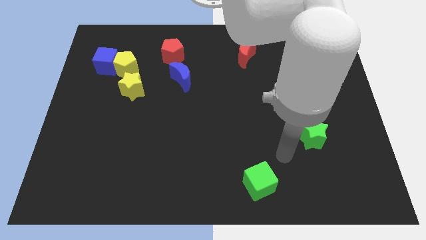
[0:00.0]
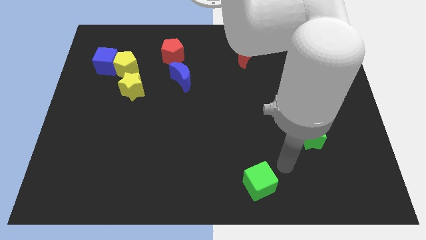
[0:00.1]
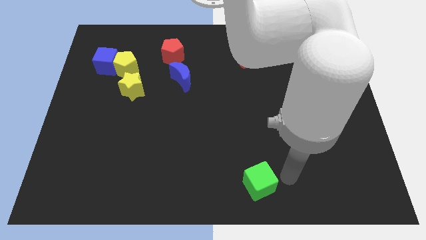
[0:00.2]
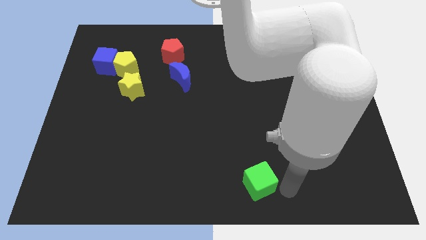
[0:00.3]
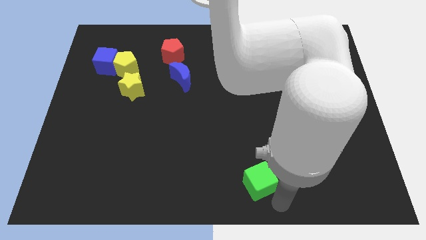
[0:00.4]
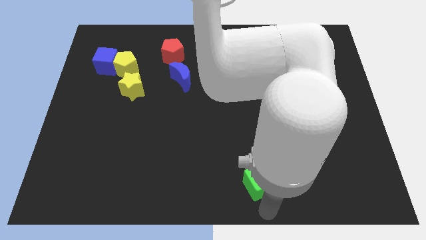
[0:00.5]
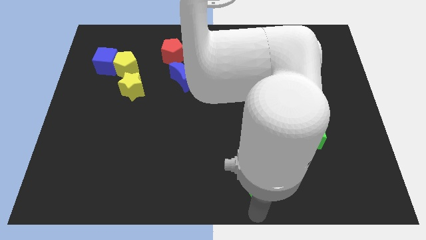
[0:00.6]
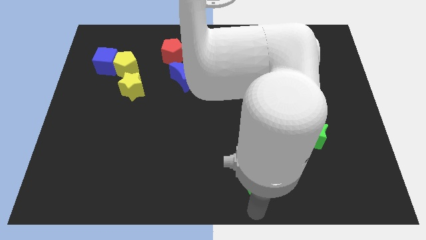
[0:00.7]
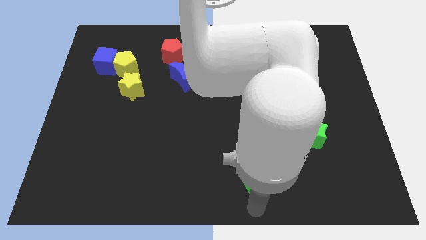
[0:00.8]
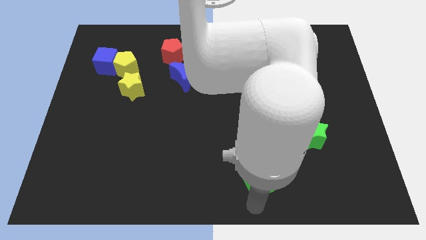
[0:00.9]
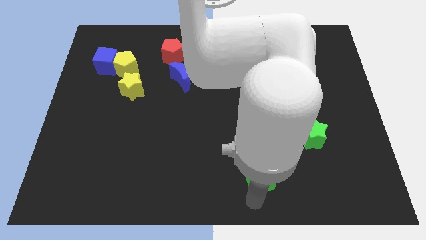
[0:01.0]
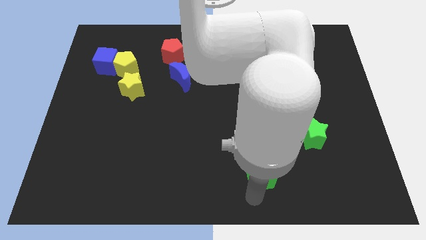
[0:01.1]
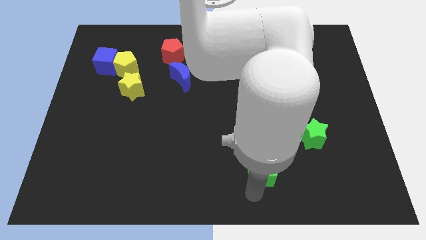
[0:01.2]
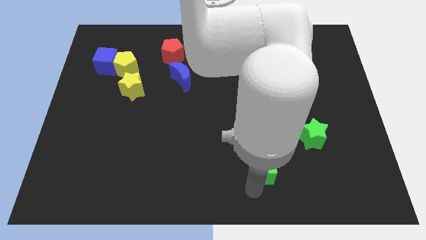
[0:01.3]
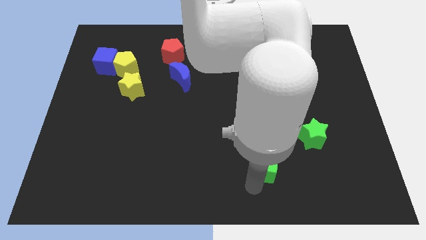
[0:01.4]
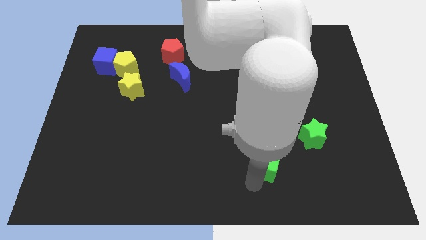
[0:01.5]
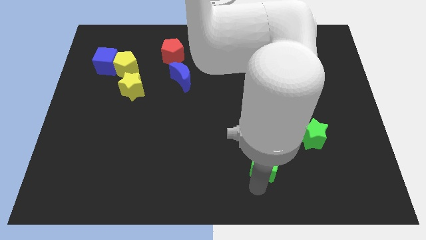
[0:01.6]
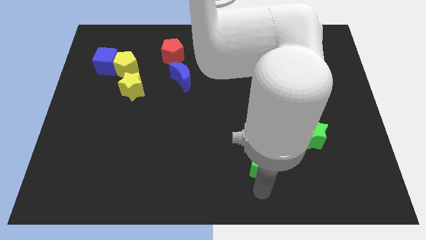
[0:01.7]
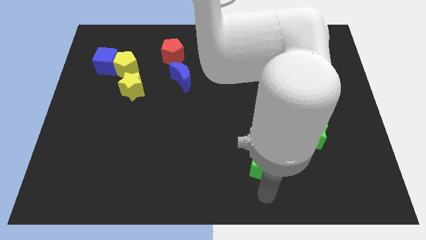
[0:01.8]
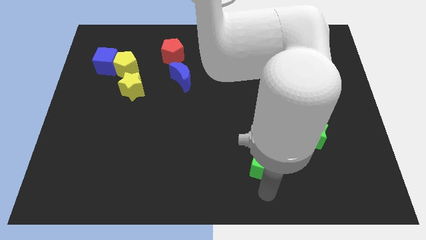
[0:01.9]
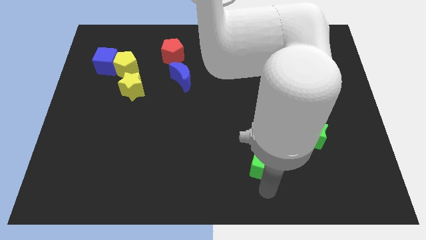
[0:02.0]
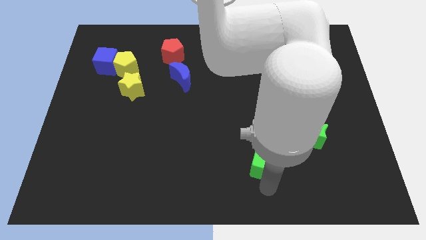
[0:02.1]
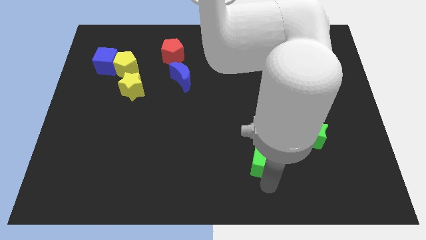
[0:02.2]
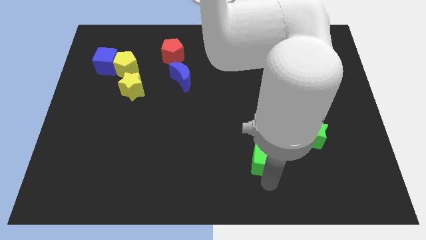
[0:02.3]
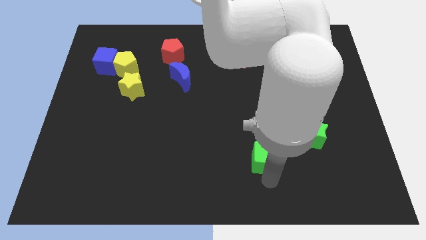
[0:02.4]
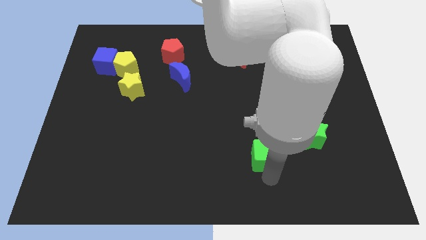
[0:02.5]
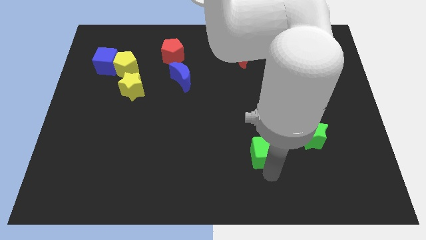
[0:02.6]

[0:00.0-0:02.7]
slightly push the green cube up

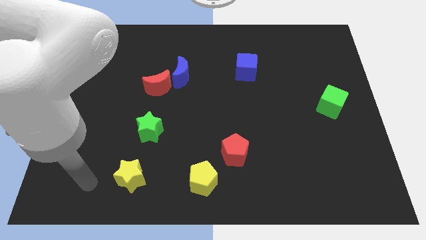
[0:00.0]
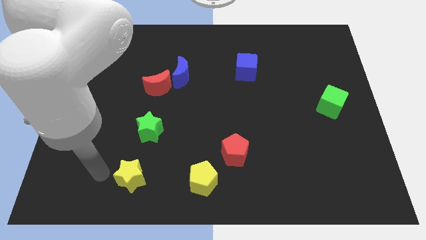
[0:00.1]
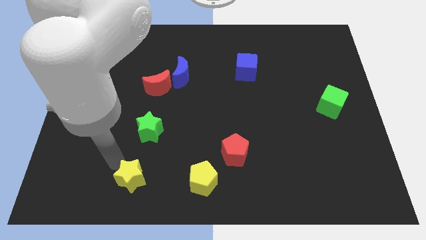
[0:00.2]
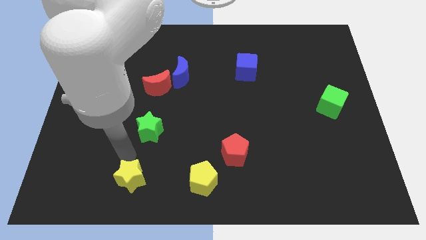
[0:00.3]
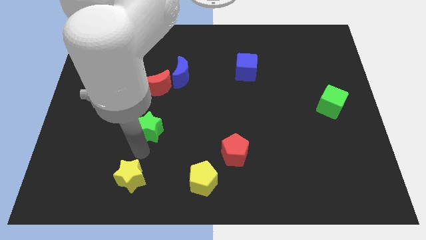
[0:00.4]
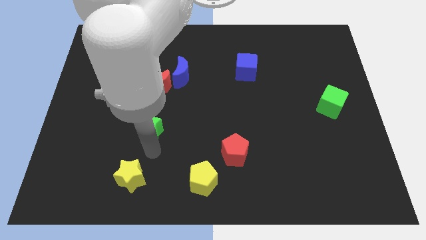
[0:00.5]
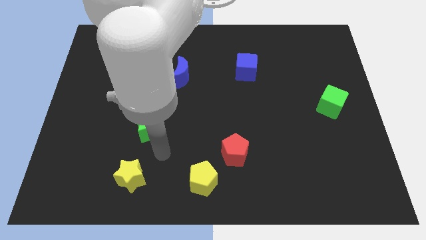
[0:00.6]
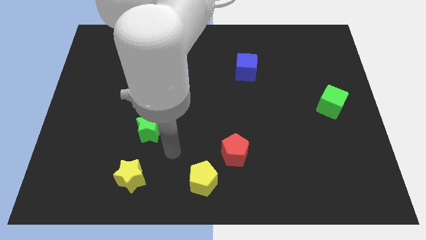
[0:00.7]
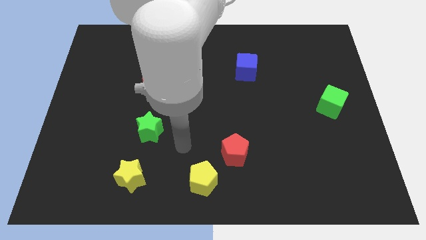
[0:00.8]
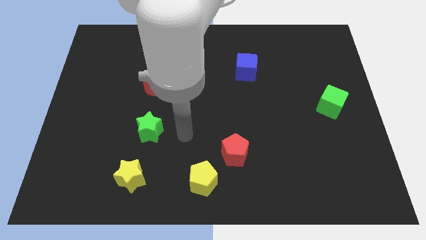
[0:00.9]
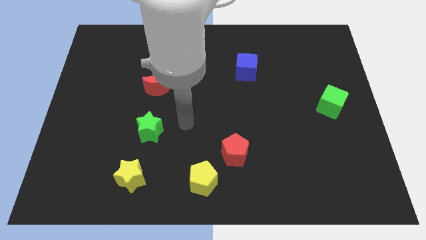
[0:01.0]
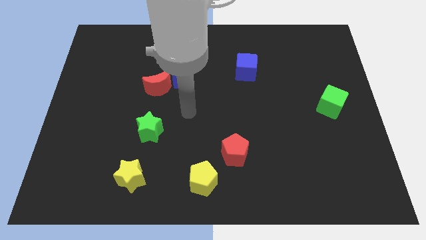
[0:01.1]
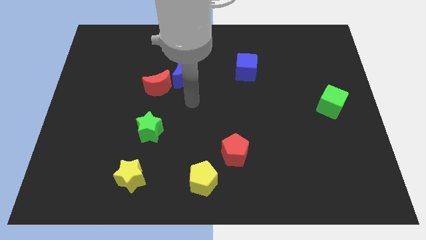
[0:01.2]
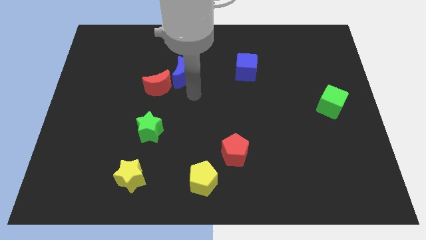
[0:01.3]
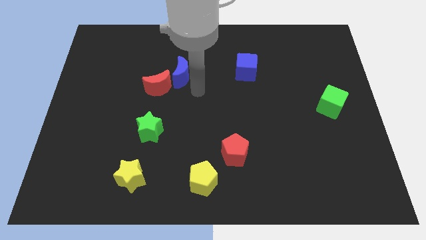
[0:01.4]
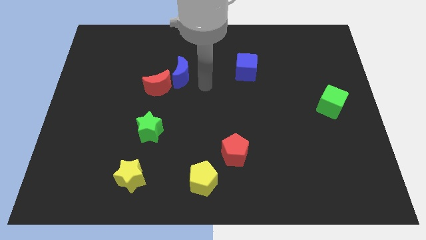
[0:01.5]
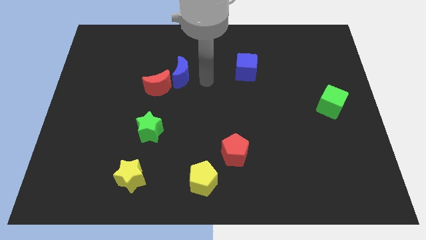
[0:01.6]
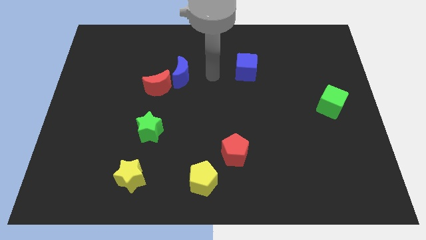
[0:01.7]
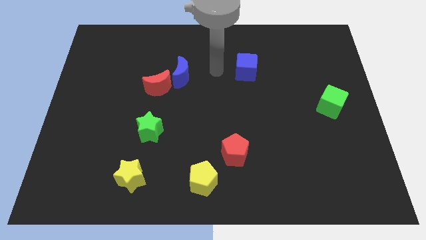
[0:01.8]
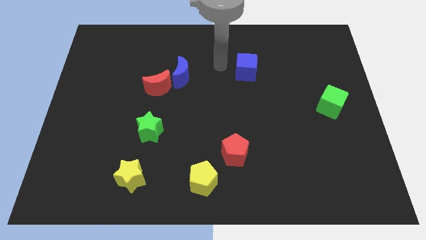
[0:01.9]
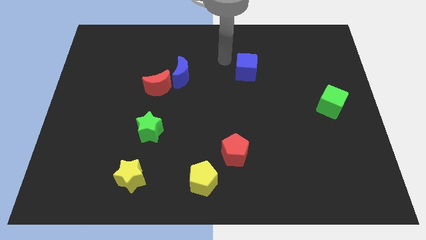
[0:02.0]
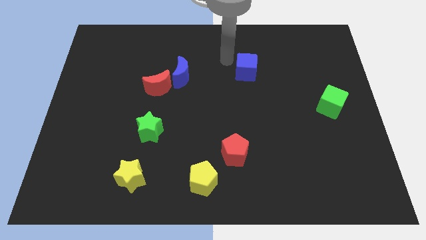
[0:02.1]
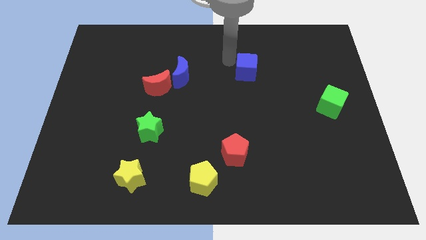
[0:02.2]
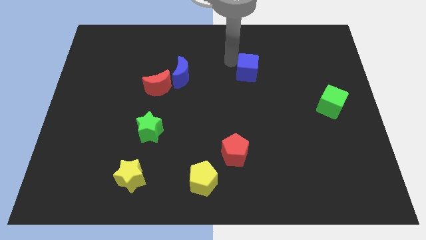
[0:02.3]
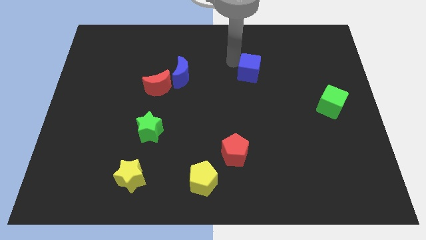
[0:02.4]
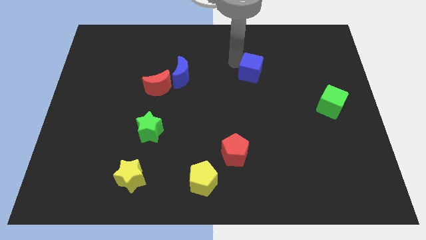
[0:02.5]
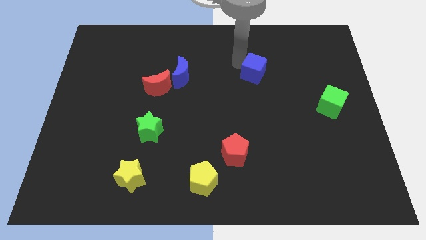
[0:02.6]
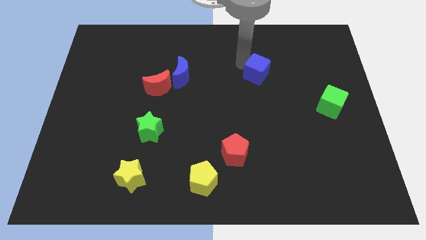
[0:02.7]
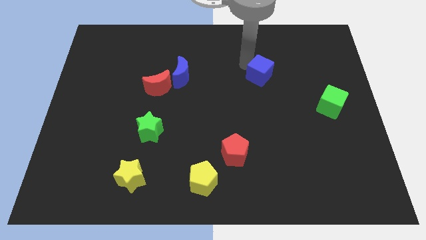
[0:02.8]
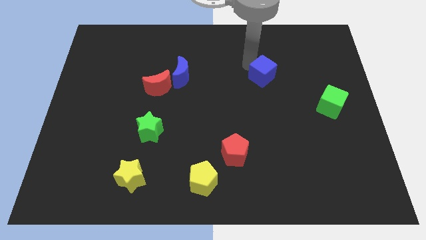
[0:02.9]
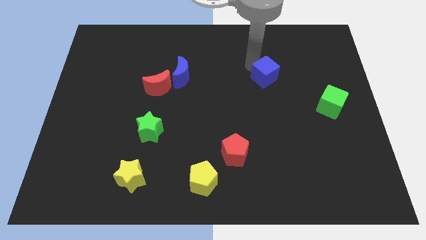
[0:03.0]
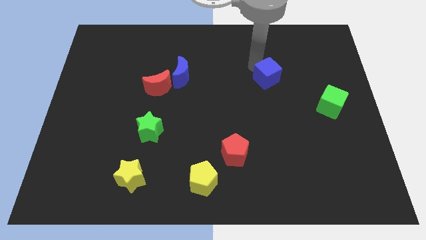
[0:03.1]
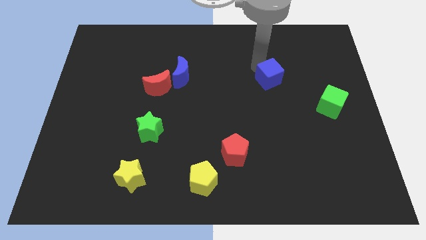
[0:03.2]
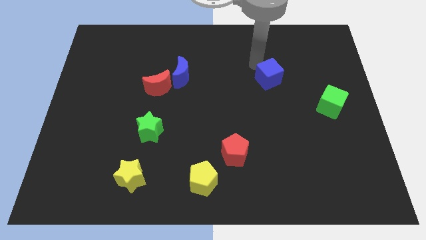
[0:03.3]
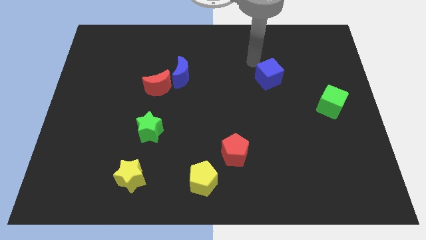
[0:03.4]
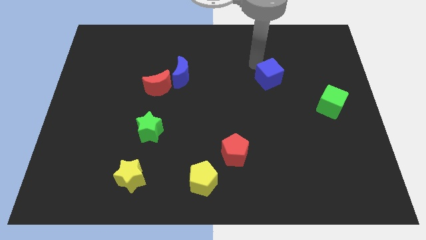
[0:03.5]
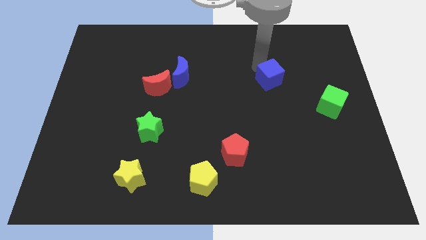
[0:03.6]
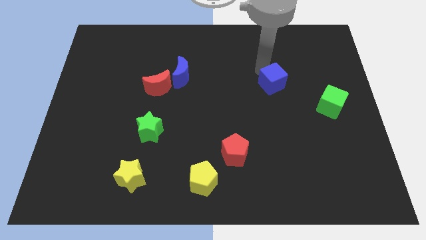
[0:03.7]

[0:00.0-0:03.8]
move the blue cube diagonally down and right somewhat

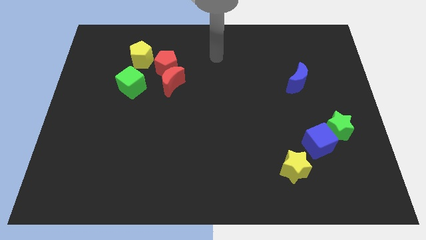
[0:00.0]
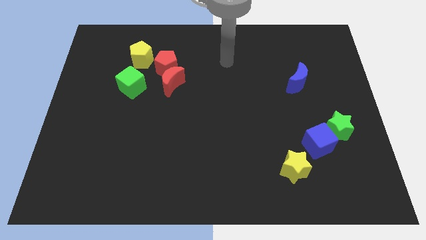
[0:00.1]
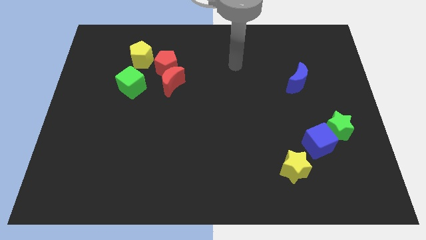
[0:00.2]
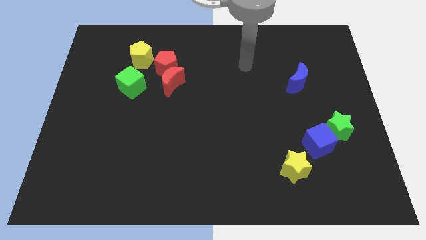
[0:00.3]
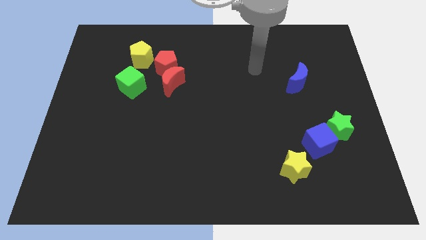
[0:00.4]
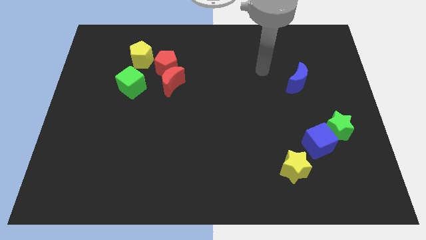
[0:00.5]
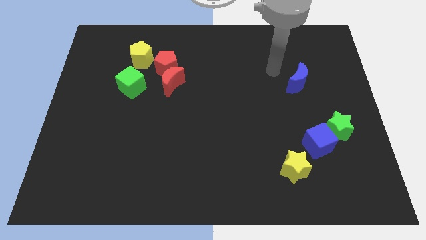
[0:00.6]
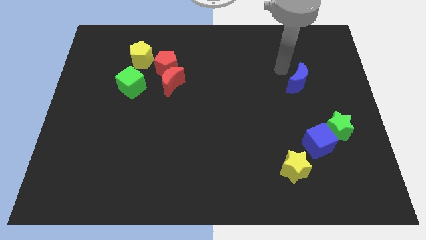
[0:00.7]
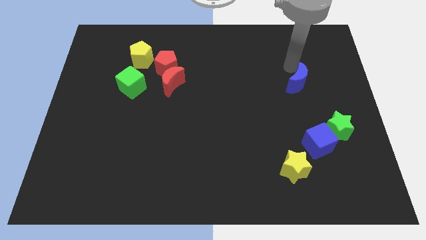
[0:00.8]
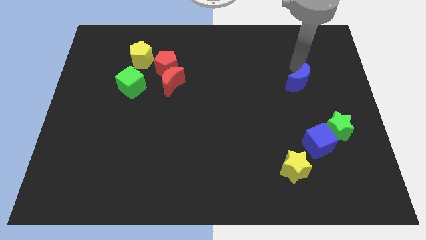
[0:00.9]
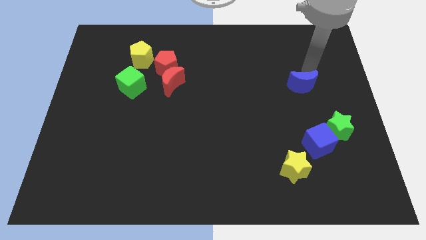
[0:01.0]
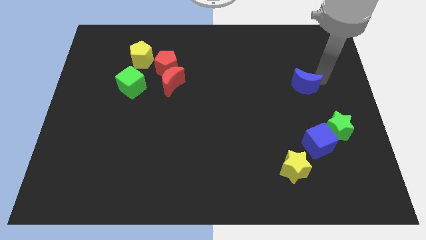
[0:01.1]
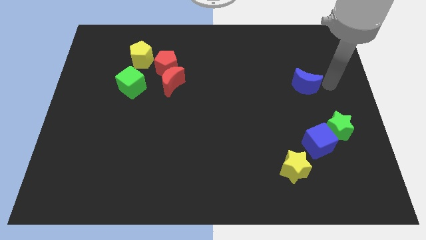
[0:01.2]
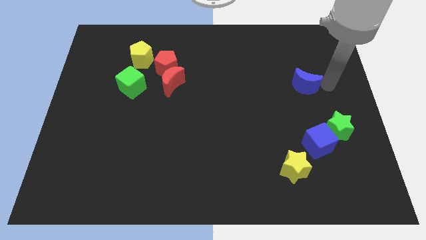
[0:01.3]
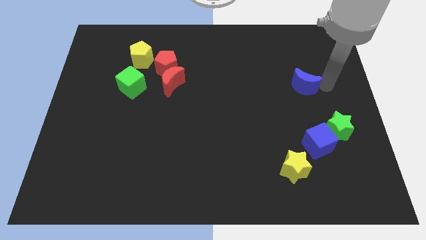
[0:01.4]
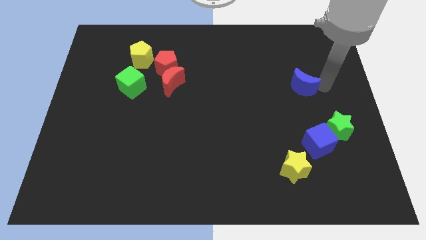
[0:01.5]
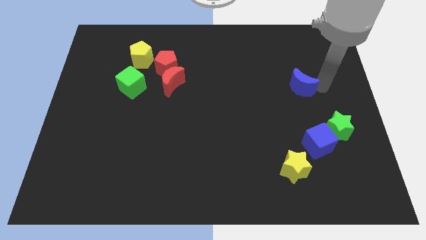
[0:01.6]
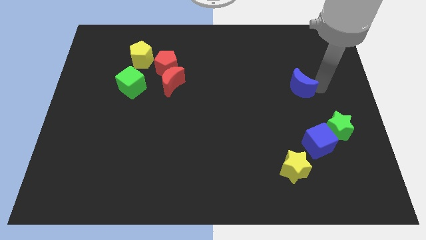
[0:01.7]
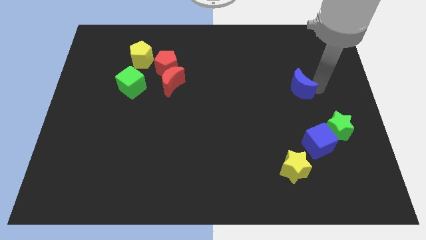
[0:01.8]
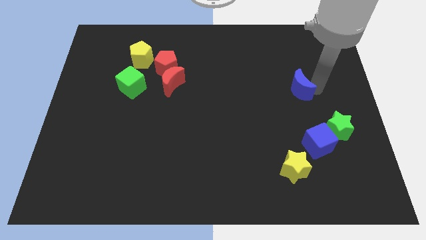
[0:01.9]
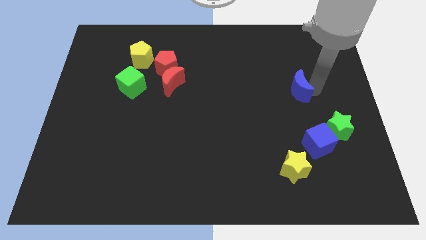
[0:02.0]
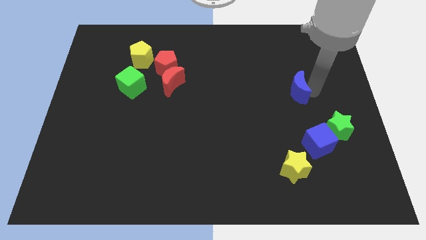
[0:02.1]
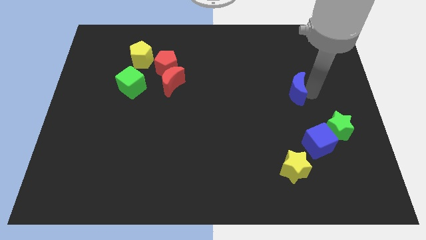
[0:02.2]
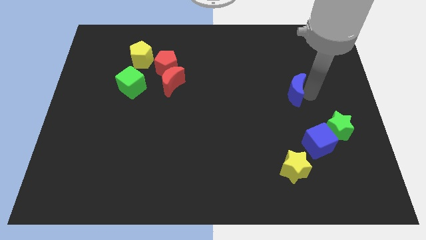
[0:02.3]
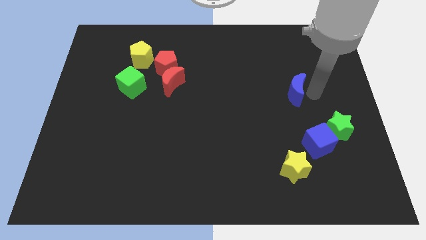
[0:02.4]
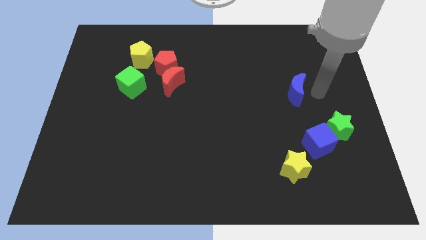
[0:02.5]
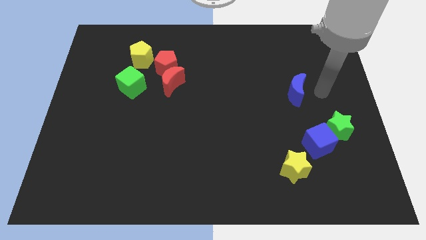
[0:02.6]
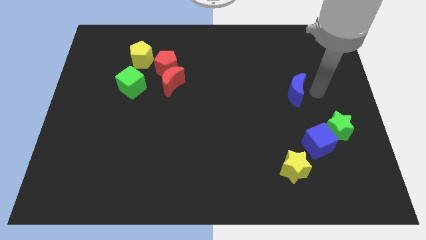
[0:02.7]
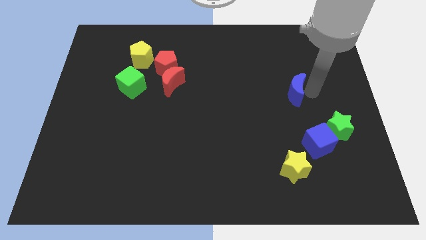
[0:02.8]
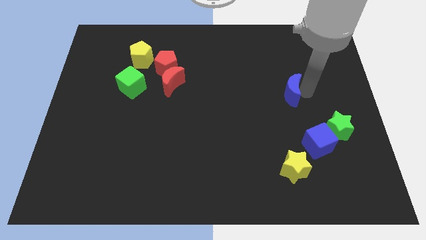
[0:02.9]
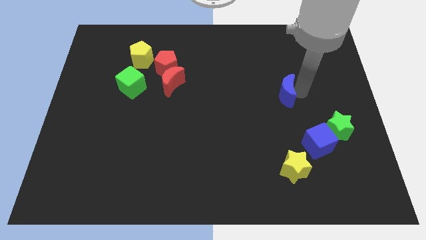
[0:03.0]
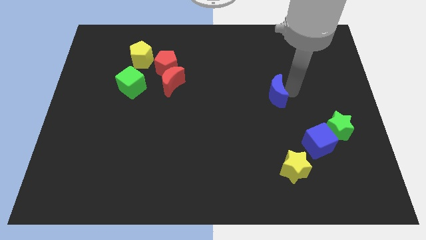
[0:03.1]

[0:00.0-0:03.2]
slightly slide the blue moon downwards and to the left
